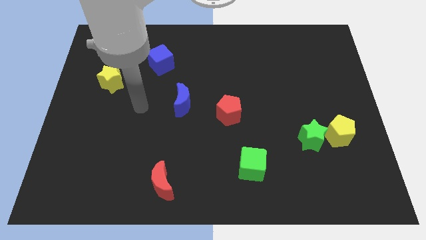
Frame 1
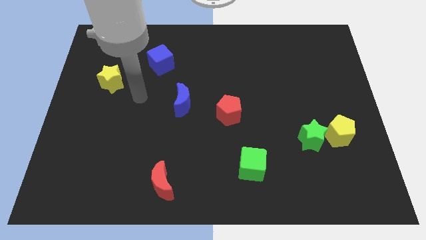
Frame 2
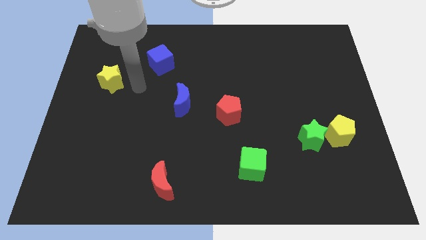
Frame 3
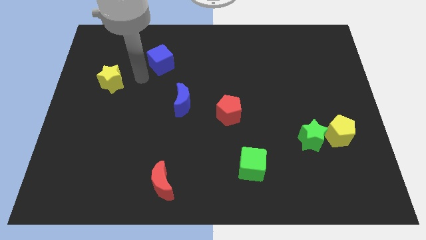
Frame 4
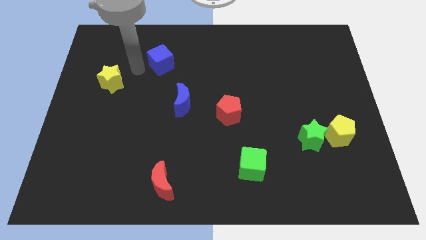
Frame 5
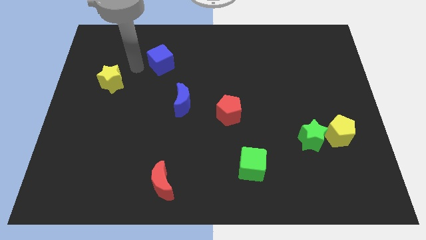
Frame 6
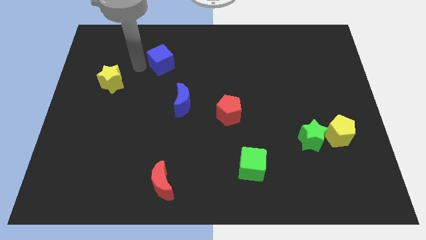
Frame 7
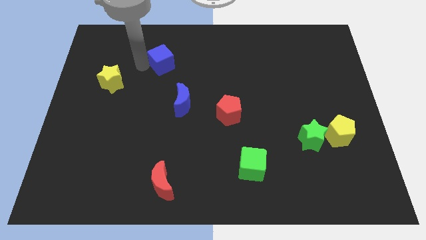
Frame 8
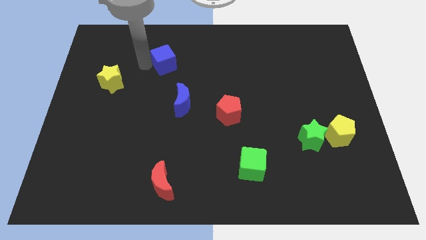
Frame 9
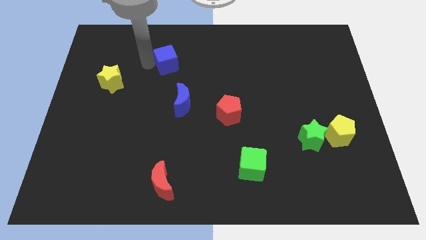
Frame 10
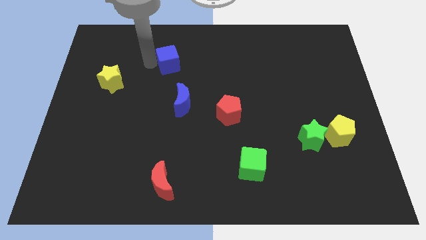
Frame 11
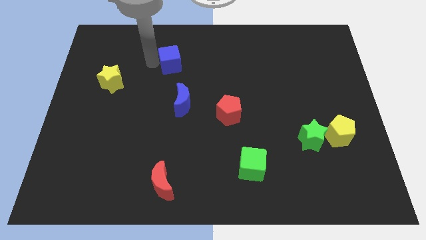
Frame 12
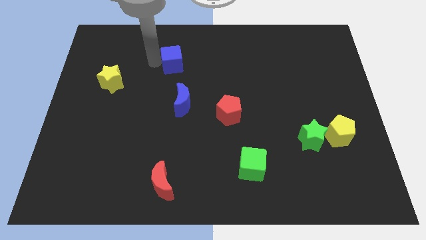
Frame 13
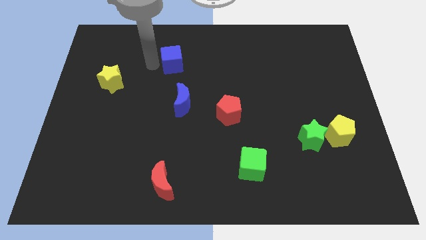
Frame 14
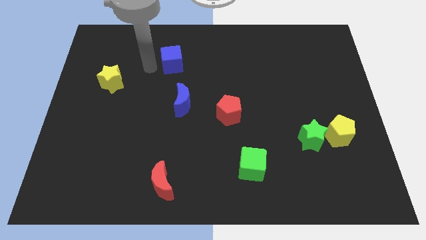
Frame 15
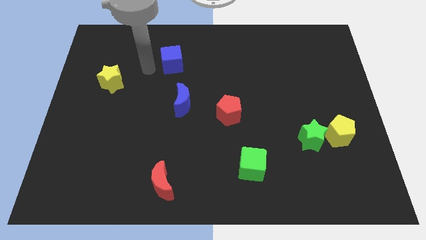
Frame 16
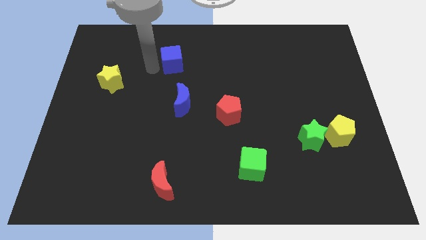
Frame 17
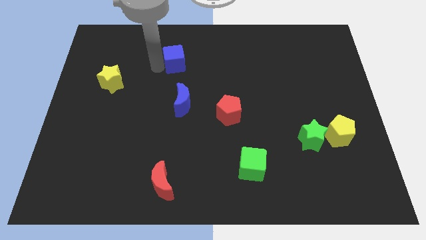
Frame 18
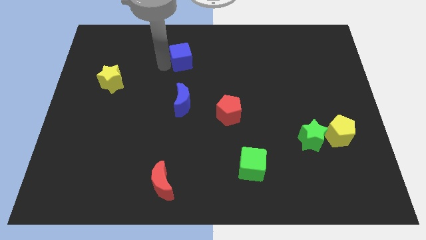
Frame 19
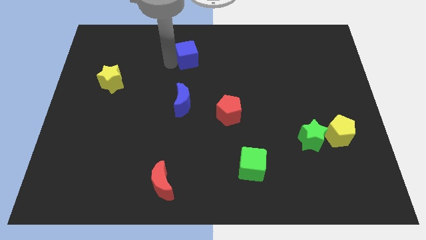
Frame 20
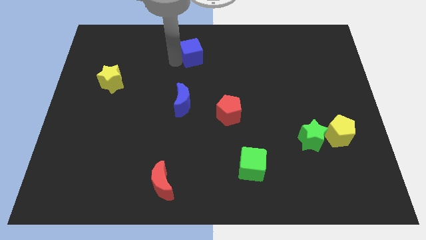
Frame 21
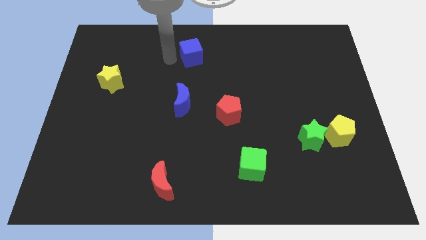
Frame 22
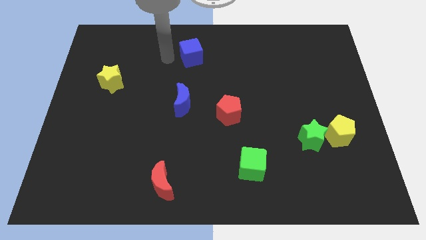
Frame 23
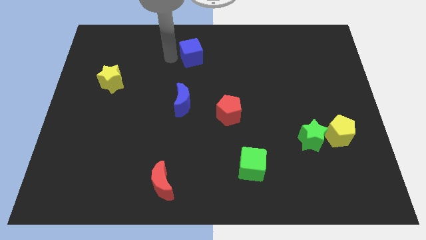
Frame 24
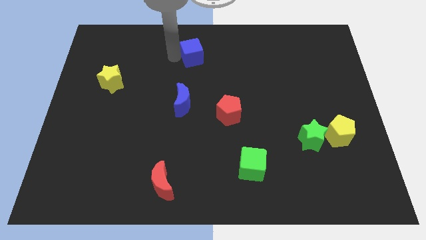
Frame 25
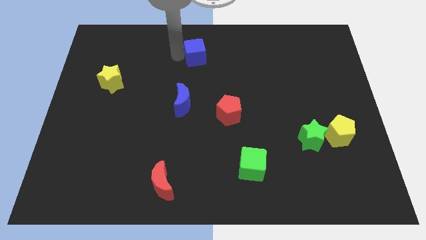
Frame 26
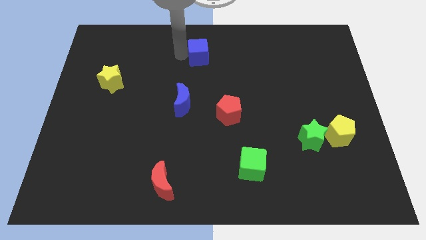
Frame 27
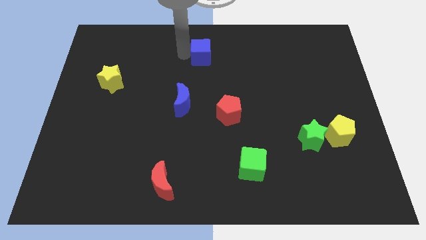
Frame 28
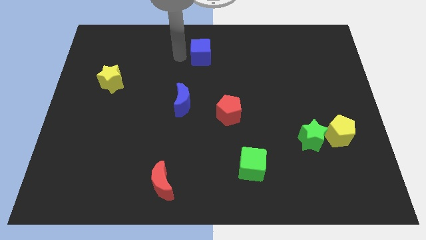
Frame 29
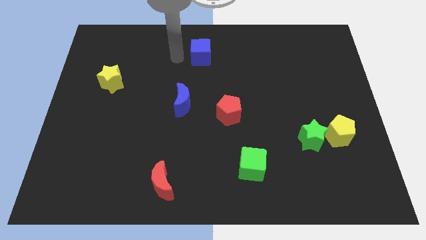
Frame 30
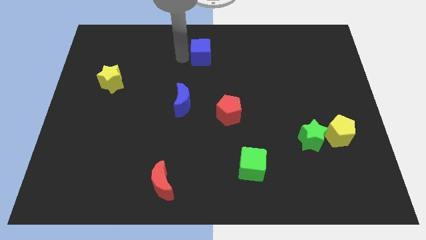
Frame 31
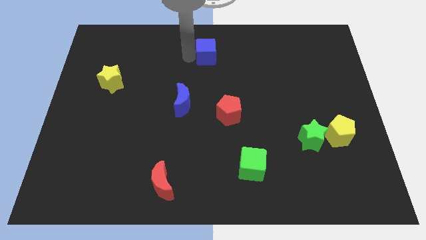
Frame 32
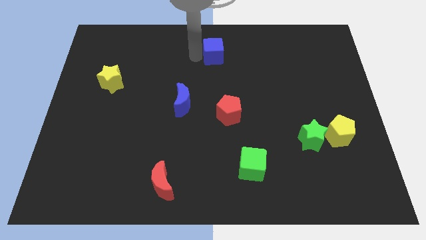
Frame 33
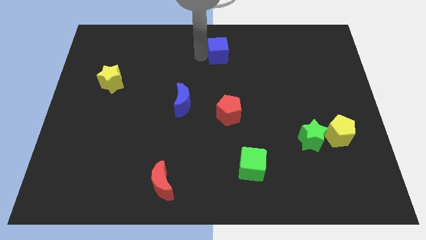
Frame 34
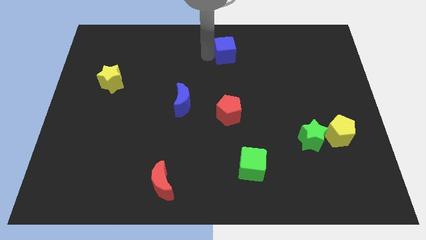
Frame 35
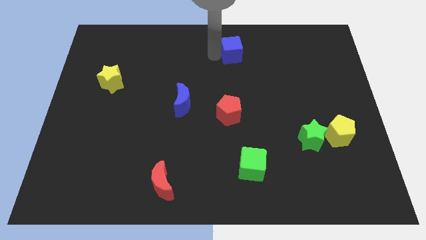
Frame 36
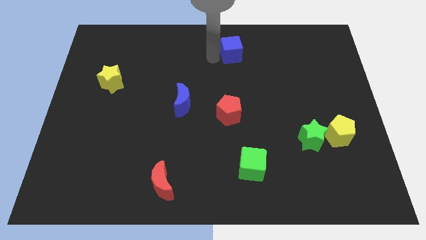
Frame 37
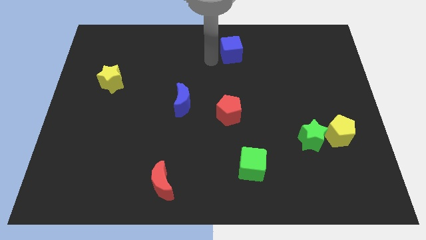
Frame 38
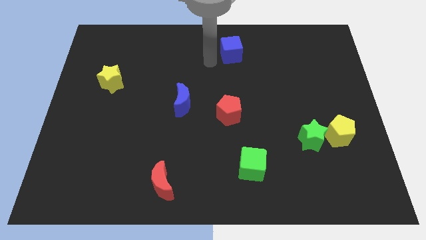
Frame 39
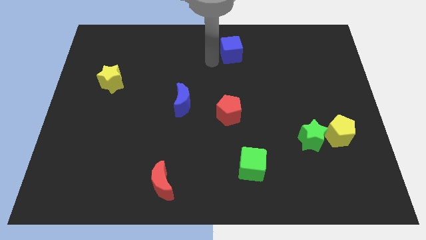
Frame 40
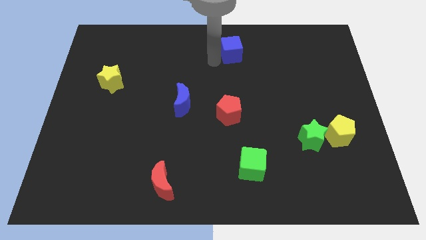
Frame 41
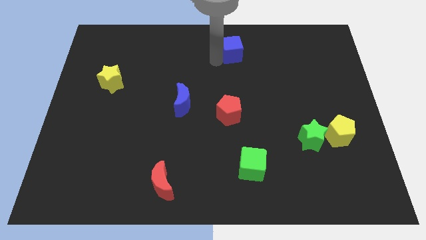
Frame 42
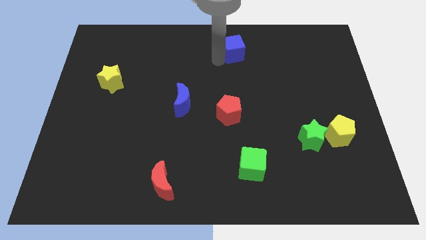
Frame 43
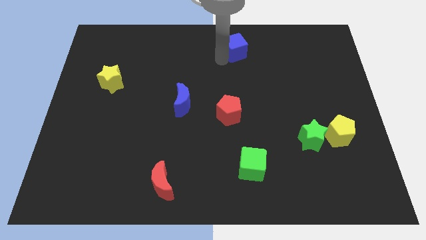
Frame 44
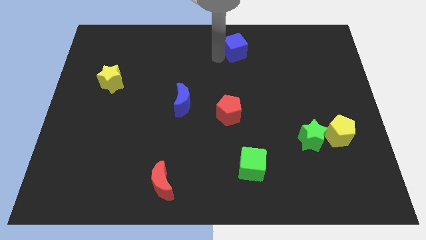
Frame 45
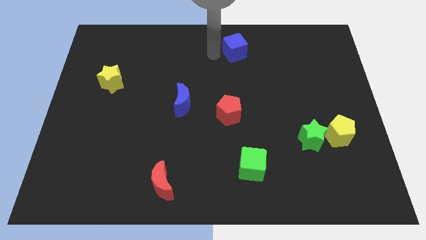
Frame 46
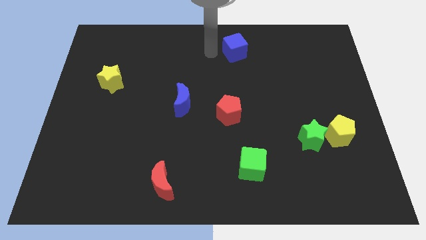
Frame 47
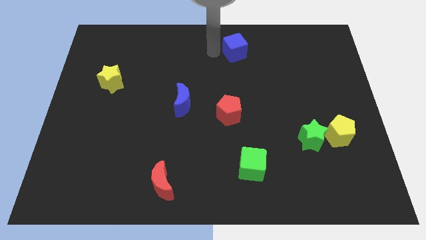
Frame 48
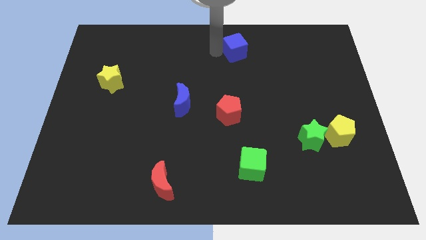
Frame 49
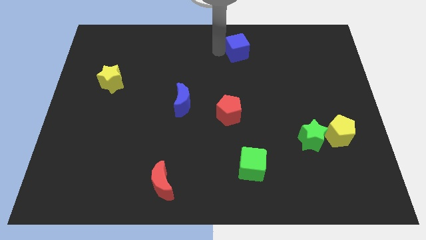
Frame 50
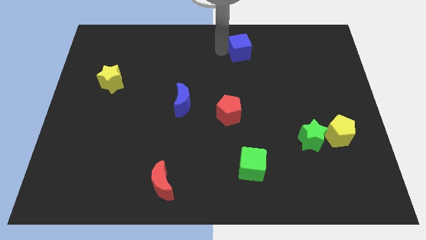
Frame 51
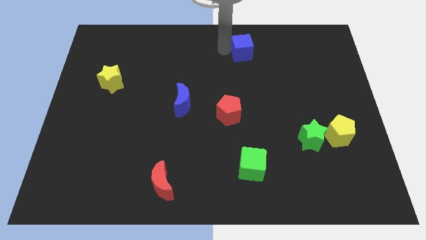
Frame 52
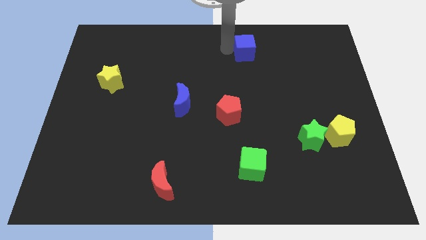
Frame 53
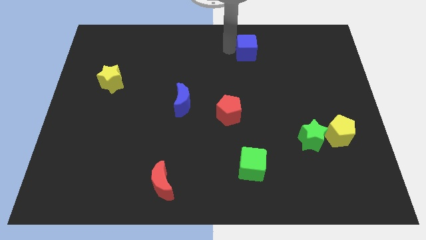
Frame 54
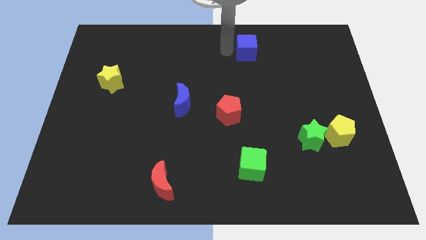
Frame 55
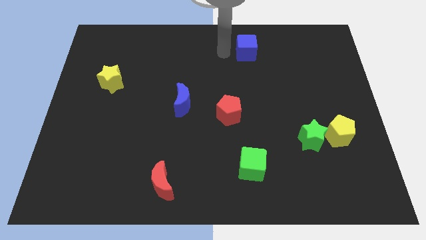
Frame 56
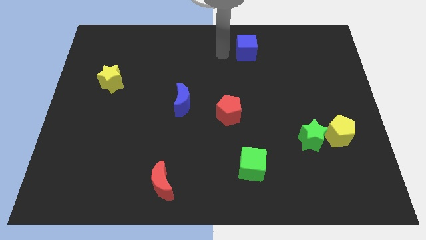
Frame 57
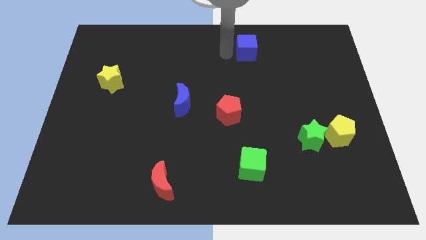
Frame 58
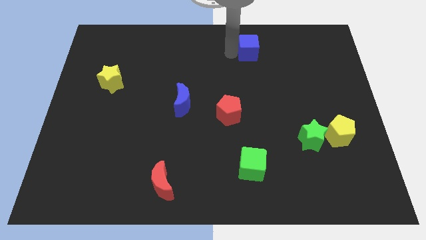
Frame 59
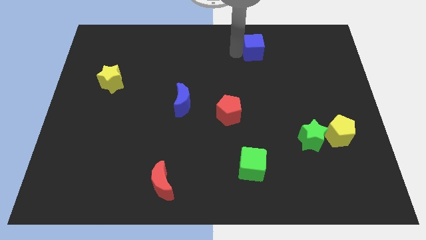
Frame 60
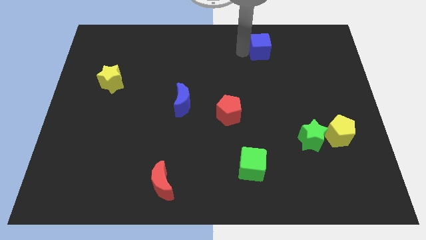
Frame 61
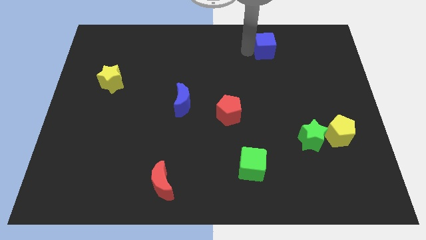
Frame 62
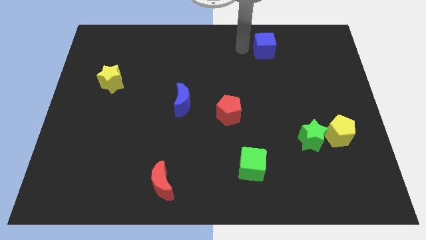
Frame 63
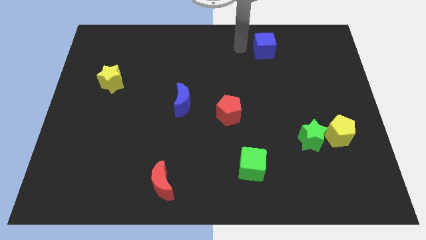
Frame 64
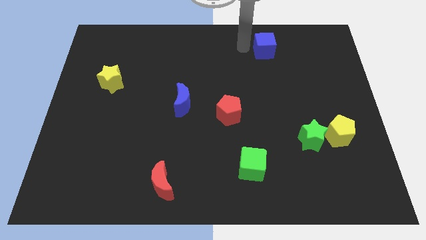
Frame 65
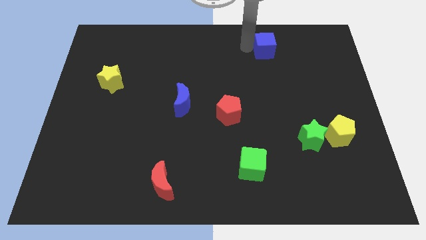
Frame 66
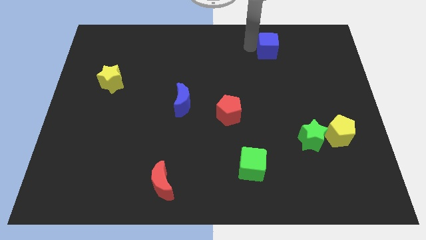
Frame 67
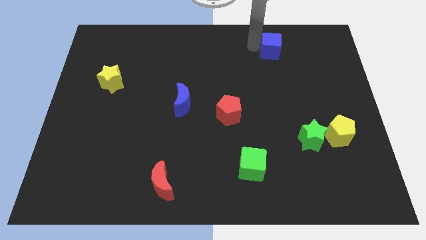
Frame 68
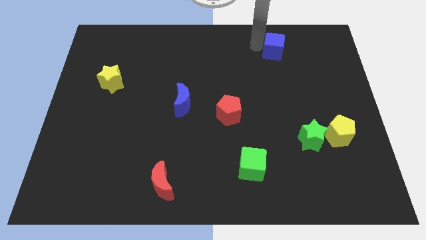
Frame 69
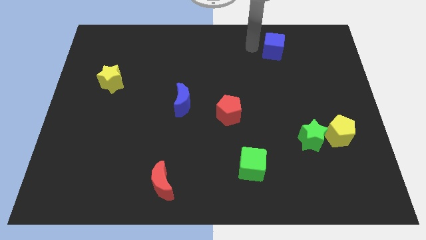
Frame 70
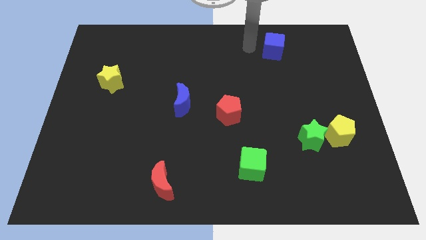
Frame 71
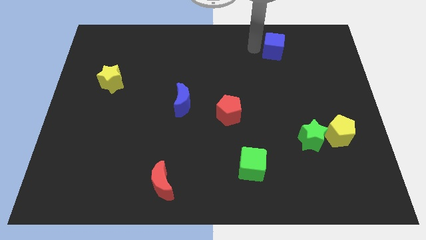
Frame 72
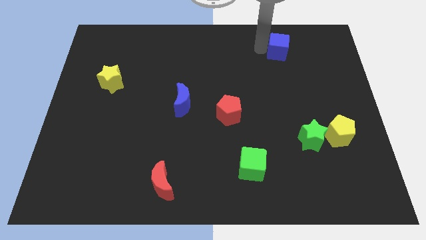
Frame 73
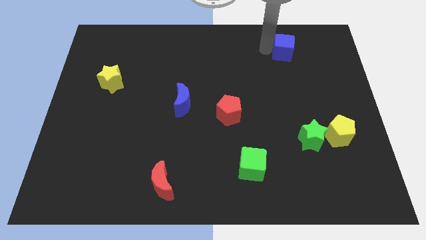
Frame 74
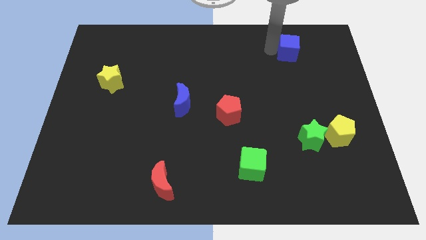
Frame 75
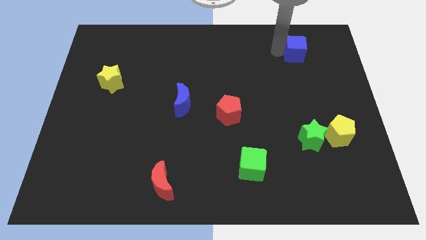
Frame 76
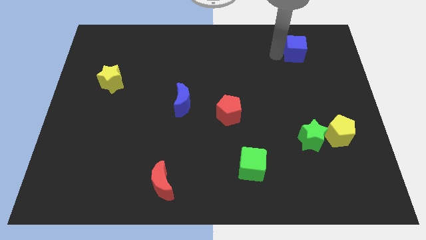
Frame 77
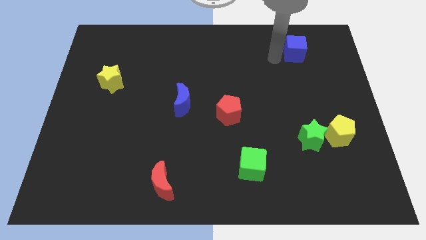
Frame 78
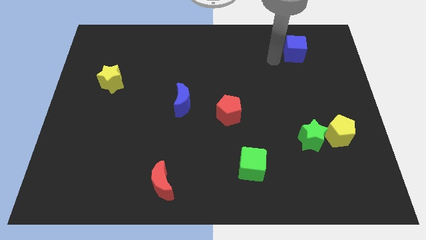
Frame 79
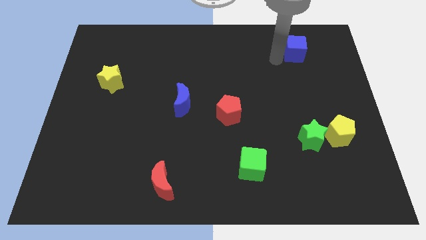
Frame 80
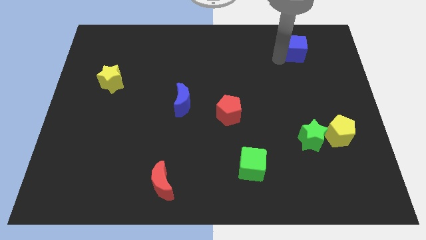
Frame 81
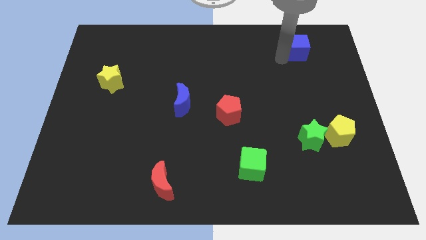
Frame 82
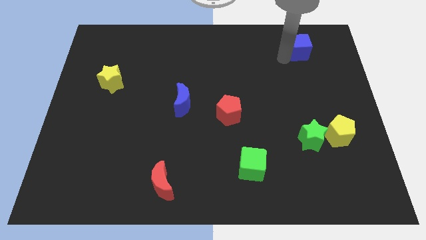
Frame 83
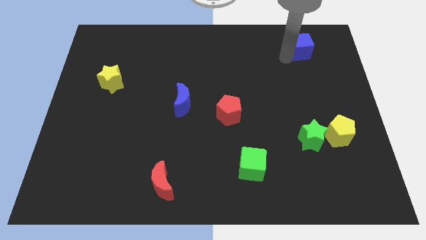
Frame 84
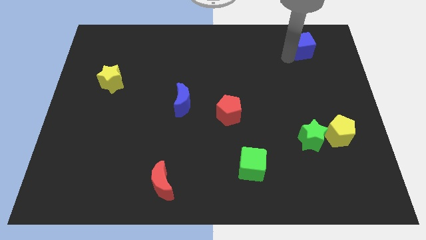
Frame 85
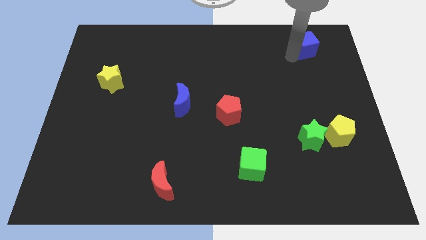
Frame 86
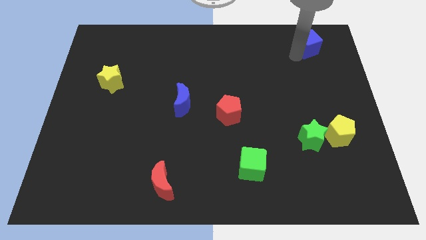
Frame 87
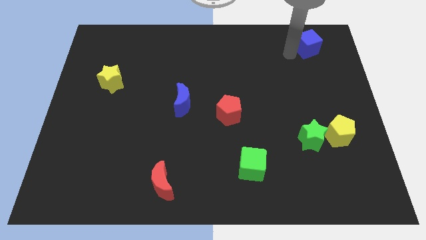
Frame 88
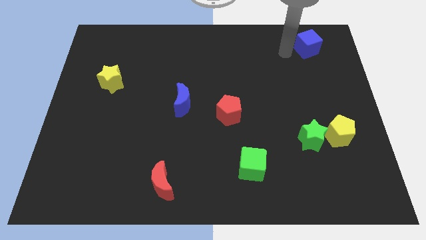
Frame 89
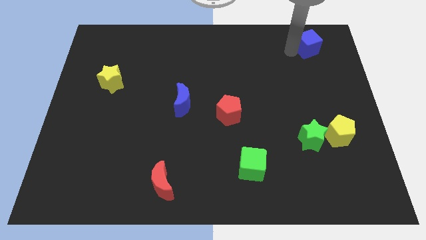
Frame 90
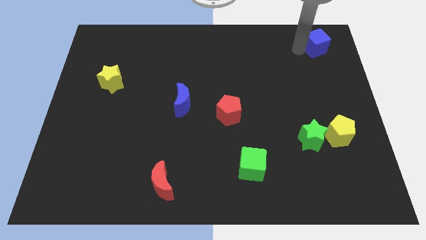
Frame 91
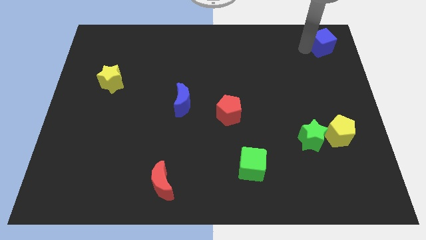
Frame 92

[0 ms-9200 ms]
put the blue cube to the top right
